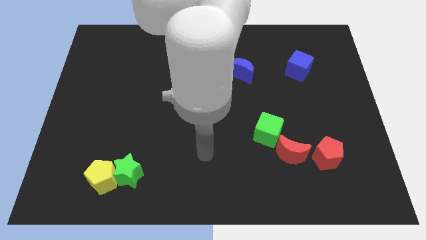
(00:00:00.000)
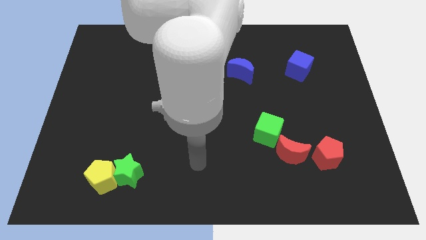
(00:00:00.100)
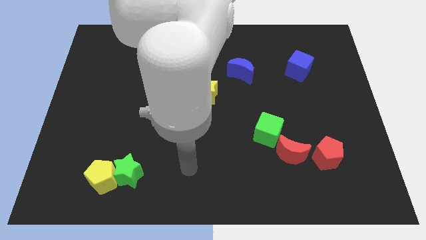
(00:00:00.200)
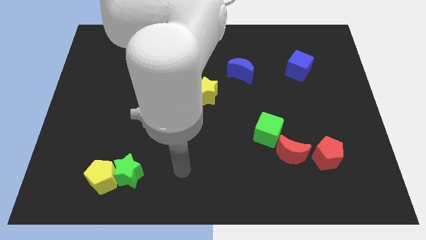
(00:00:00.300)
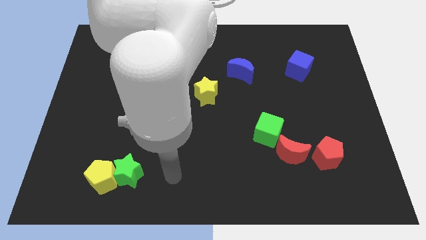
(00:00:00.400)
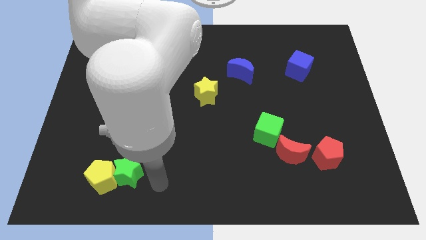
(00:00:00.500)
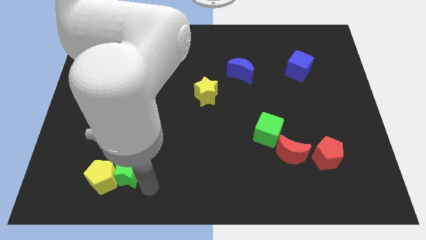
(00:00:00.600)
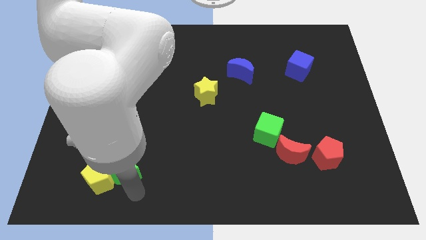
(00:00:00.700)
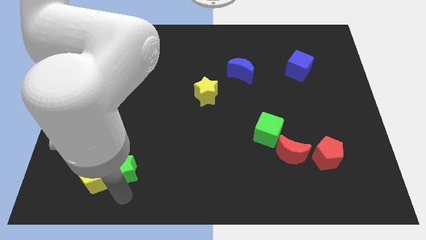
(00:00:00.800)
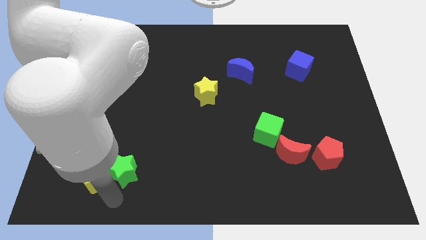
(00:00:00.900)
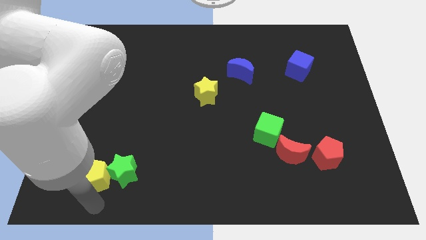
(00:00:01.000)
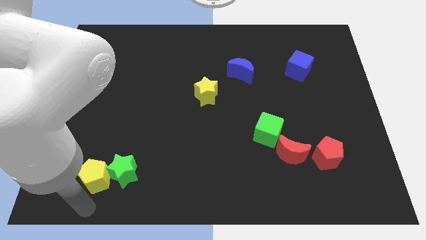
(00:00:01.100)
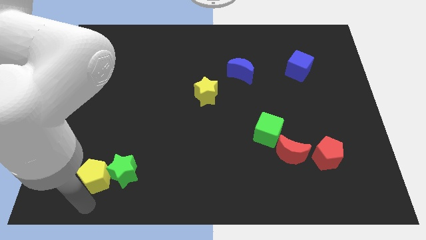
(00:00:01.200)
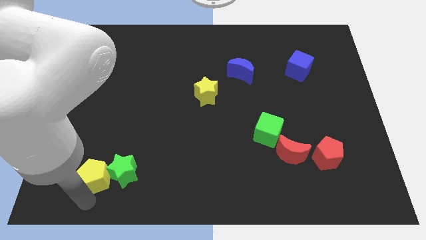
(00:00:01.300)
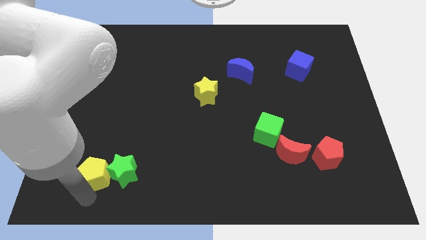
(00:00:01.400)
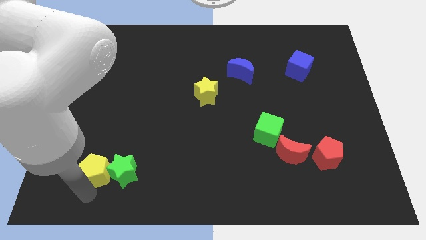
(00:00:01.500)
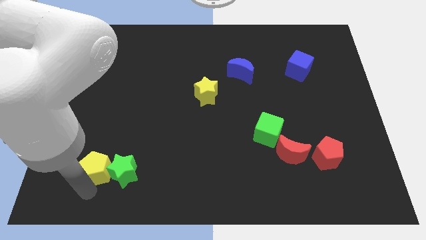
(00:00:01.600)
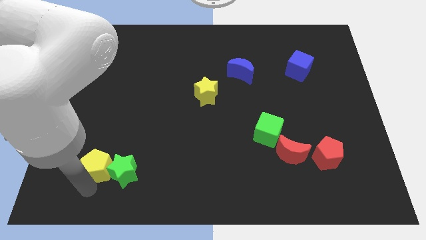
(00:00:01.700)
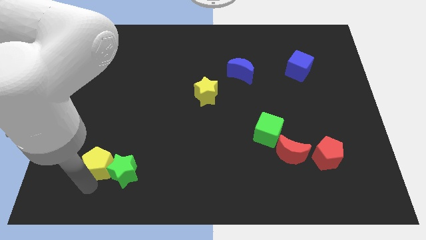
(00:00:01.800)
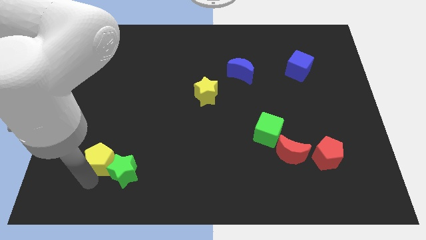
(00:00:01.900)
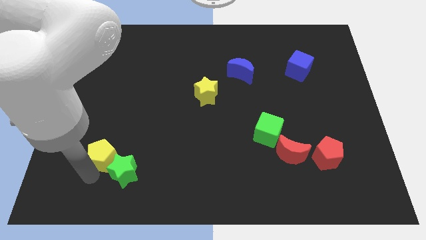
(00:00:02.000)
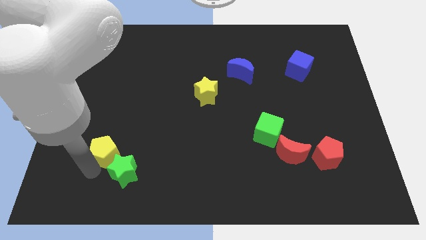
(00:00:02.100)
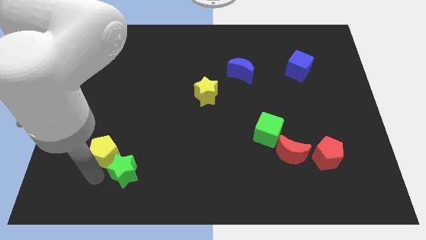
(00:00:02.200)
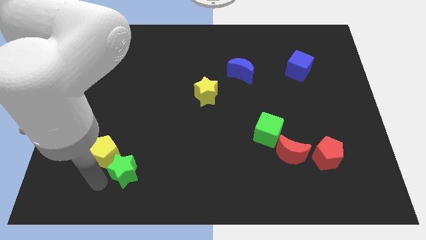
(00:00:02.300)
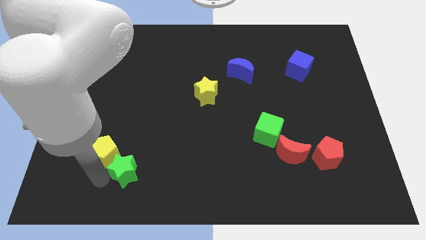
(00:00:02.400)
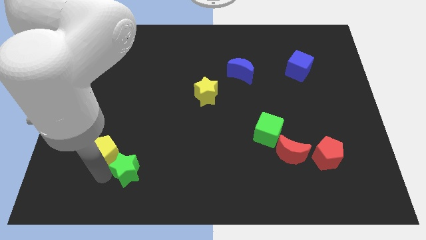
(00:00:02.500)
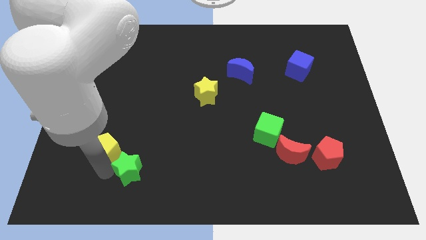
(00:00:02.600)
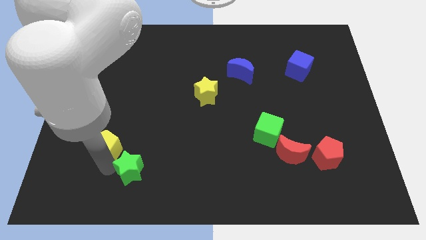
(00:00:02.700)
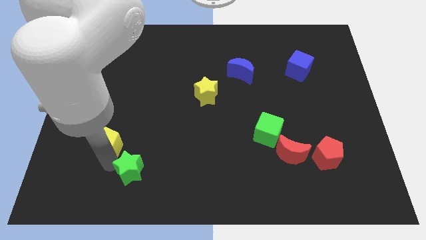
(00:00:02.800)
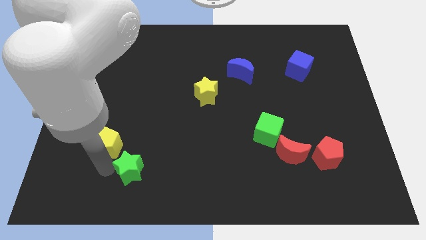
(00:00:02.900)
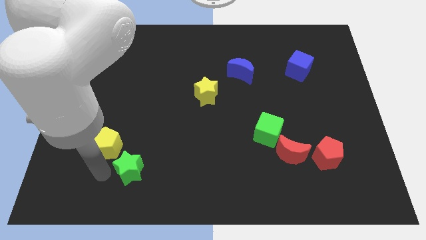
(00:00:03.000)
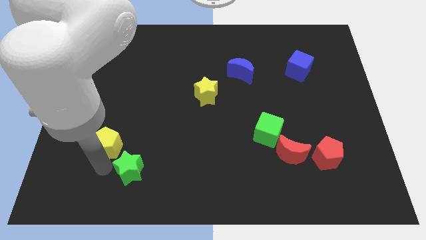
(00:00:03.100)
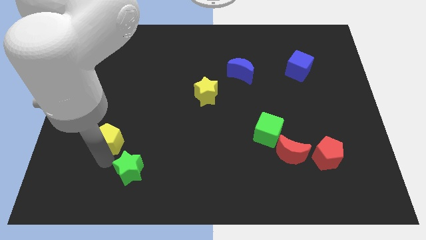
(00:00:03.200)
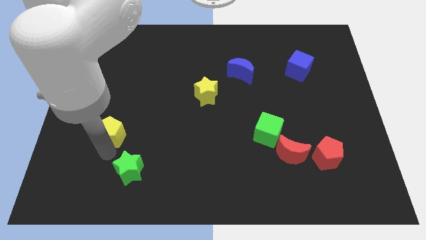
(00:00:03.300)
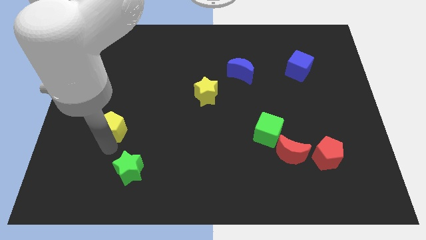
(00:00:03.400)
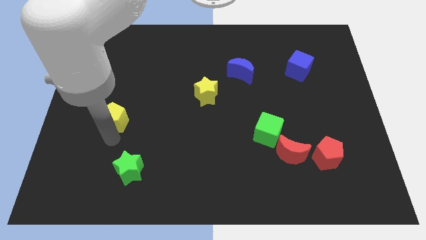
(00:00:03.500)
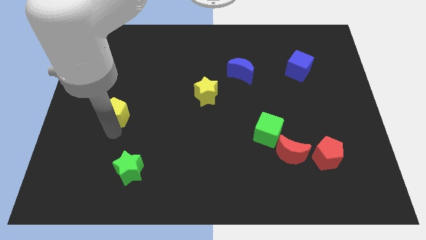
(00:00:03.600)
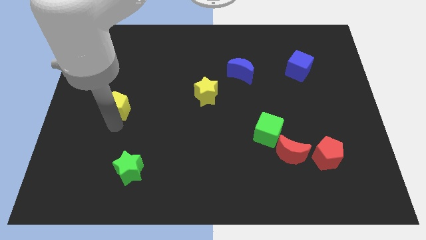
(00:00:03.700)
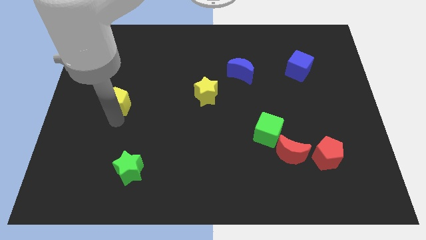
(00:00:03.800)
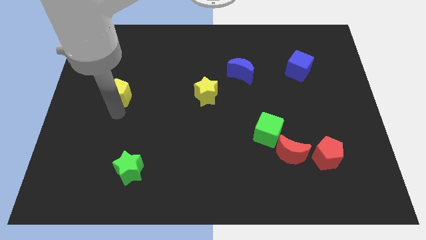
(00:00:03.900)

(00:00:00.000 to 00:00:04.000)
slide the yellow pentagon up

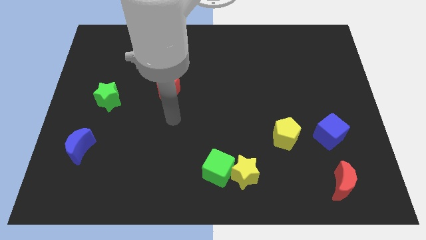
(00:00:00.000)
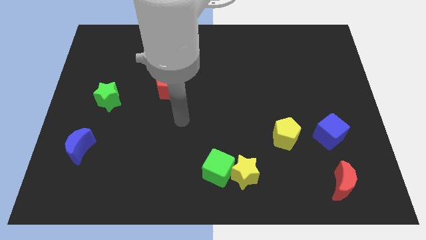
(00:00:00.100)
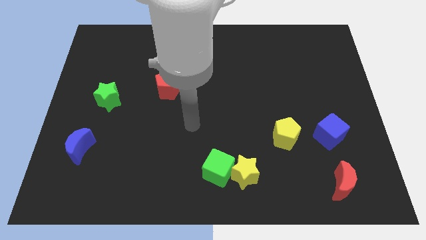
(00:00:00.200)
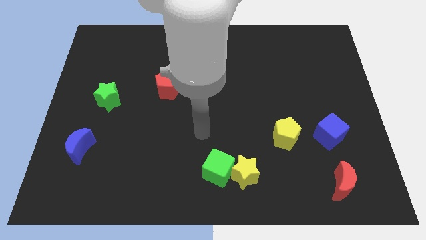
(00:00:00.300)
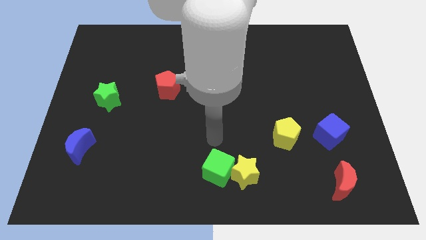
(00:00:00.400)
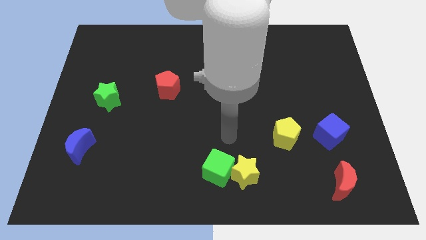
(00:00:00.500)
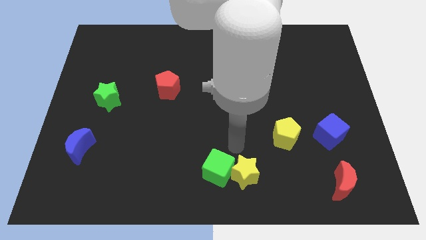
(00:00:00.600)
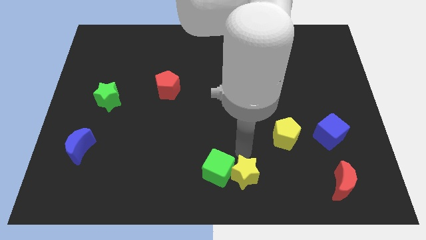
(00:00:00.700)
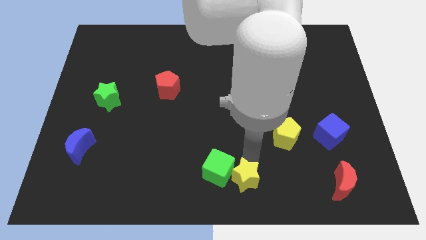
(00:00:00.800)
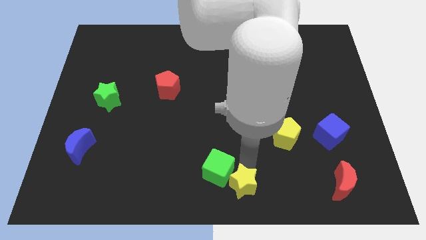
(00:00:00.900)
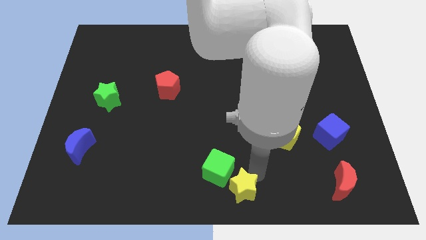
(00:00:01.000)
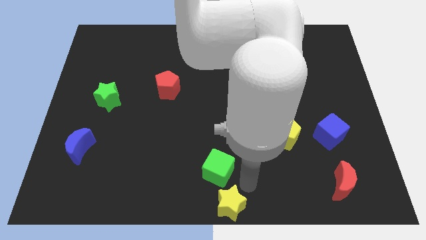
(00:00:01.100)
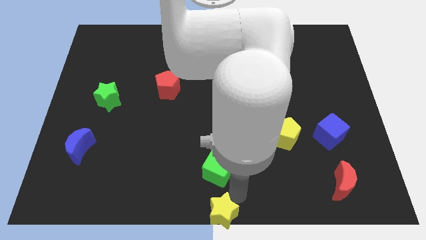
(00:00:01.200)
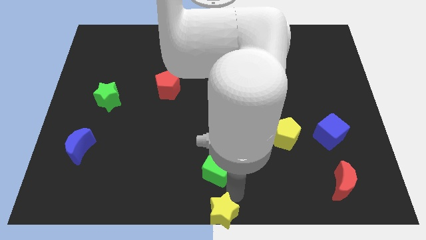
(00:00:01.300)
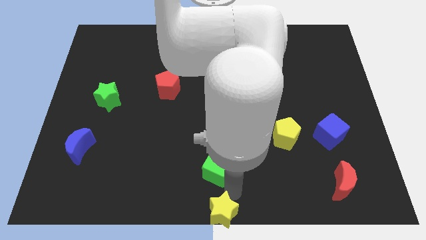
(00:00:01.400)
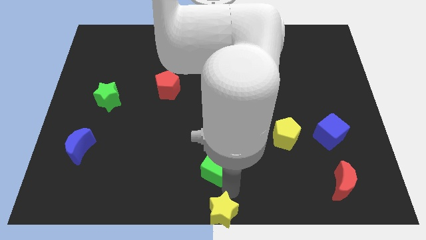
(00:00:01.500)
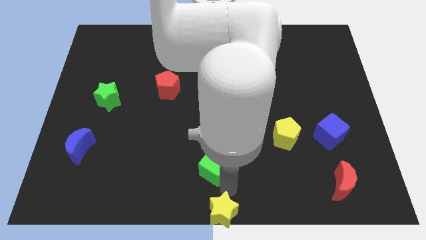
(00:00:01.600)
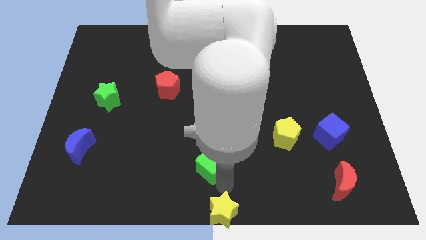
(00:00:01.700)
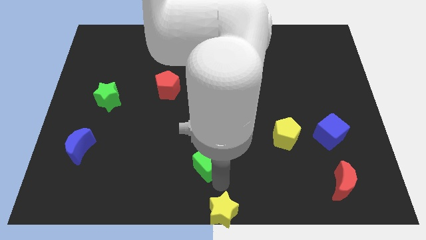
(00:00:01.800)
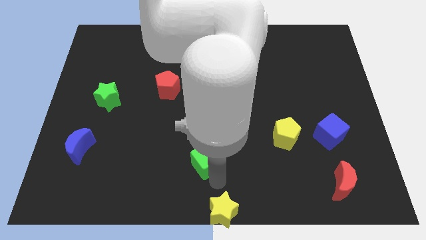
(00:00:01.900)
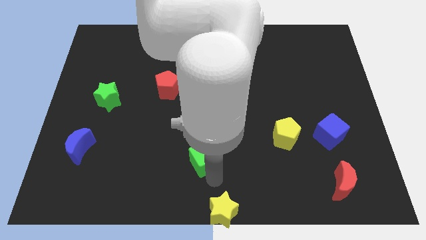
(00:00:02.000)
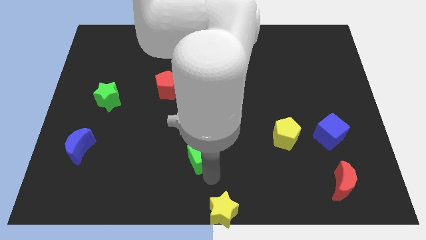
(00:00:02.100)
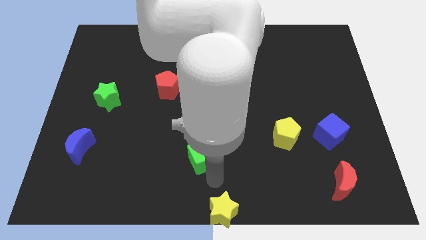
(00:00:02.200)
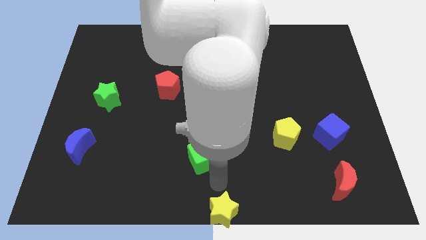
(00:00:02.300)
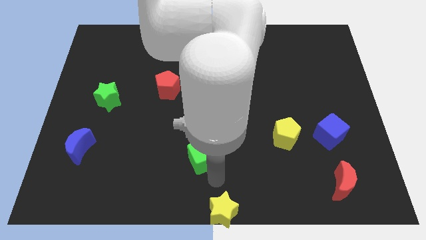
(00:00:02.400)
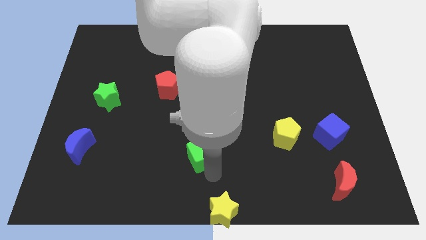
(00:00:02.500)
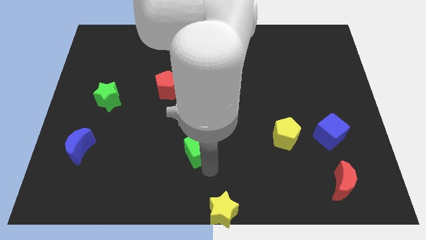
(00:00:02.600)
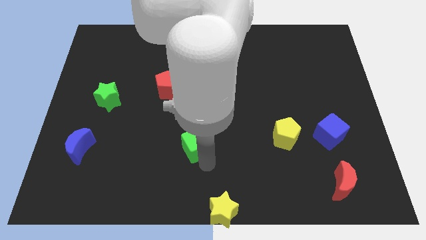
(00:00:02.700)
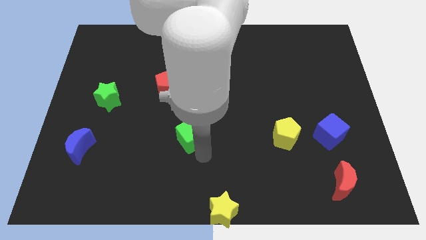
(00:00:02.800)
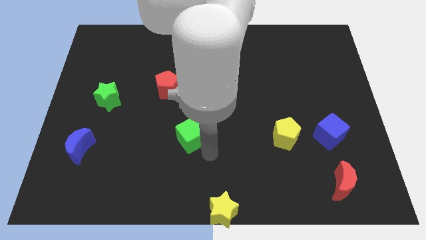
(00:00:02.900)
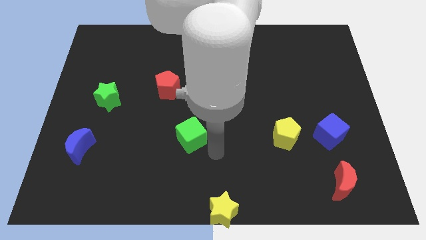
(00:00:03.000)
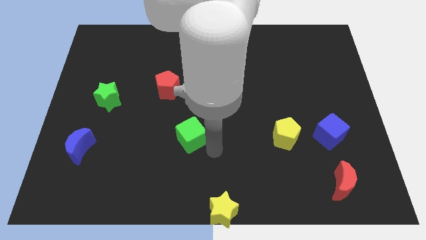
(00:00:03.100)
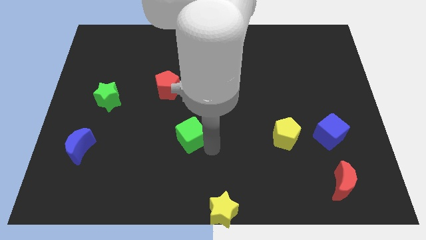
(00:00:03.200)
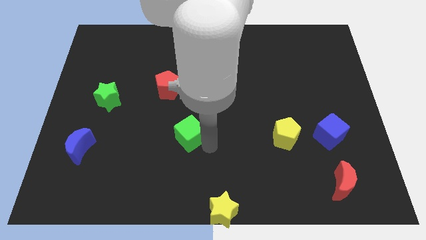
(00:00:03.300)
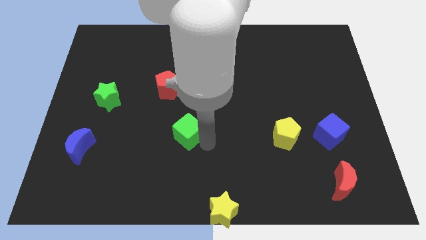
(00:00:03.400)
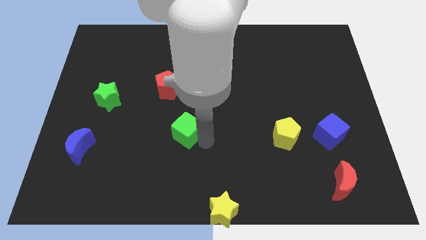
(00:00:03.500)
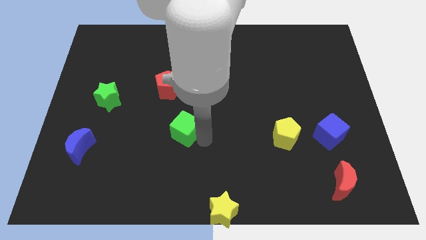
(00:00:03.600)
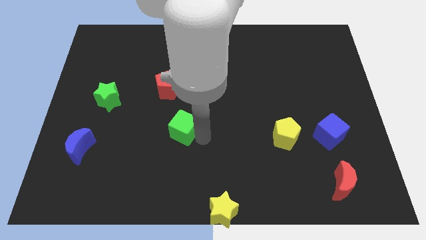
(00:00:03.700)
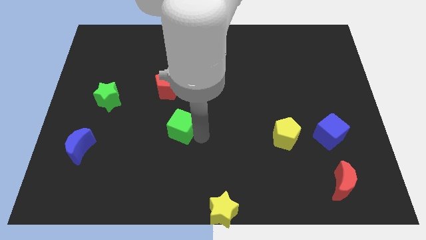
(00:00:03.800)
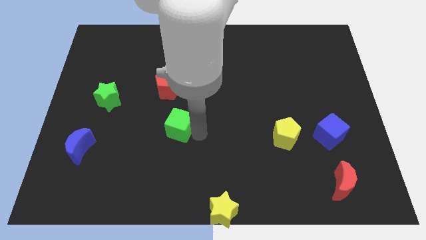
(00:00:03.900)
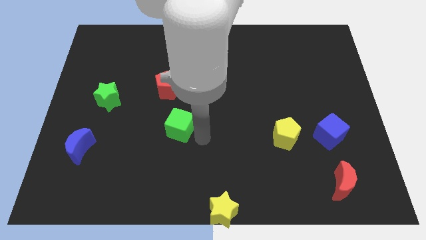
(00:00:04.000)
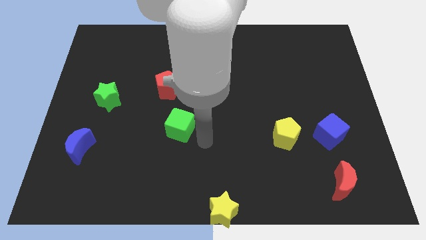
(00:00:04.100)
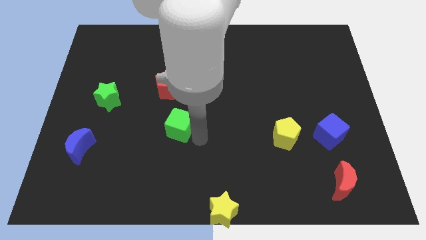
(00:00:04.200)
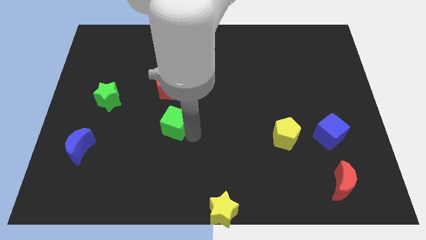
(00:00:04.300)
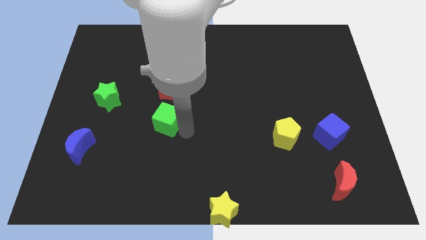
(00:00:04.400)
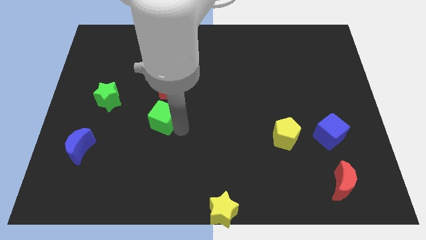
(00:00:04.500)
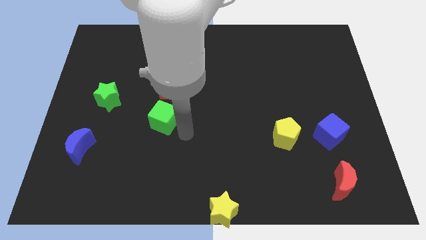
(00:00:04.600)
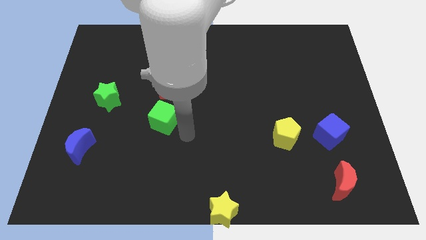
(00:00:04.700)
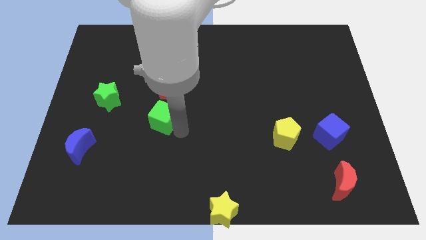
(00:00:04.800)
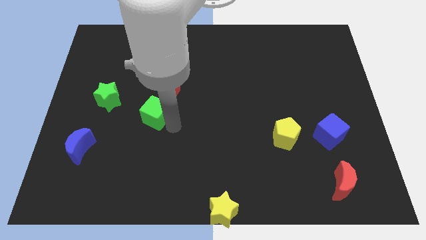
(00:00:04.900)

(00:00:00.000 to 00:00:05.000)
move the green cube up and left
